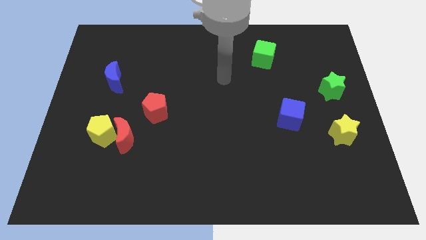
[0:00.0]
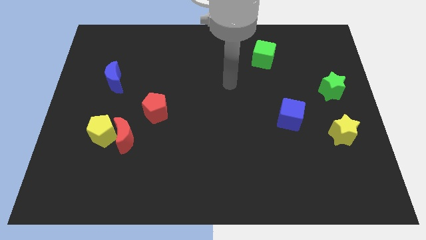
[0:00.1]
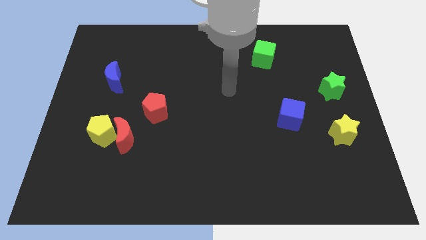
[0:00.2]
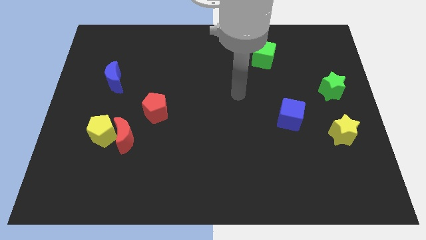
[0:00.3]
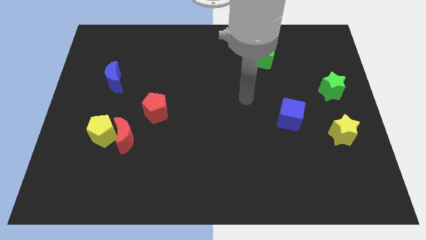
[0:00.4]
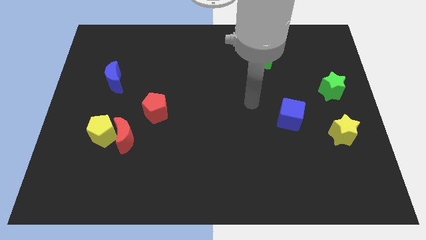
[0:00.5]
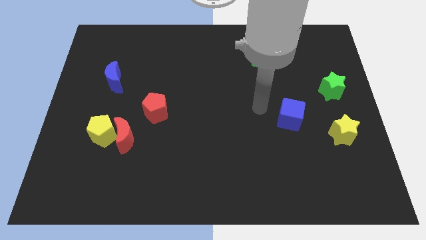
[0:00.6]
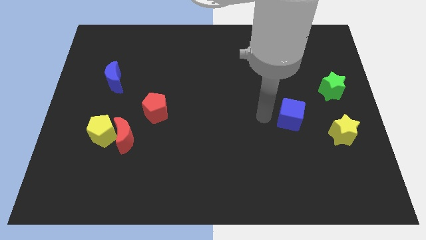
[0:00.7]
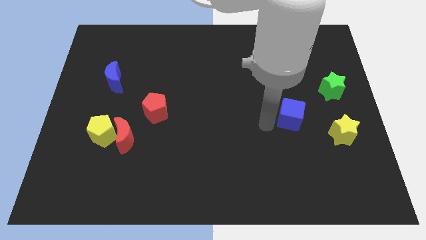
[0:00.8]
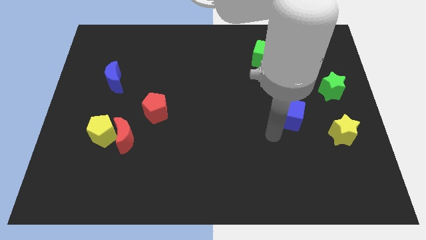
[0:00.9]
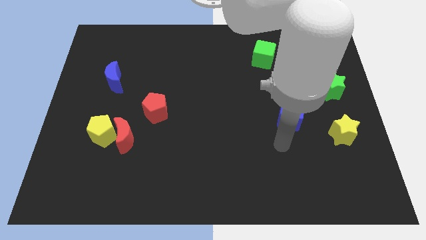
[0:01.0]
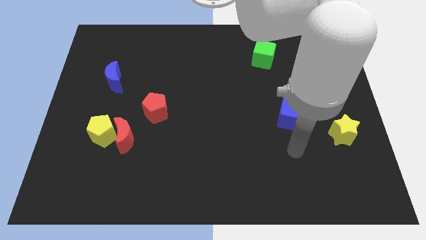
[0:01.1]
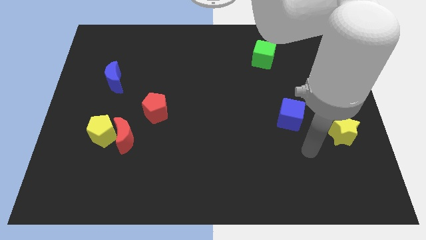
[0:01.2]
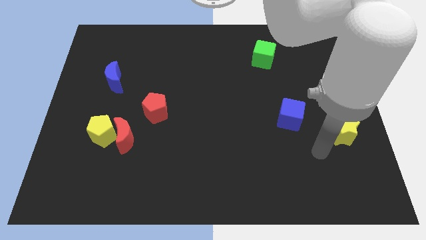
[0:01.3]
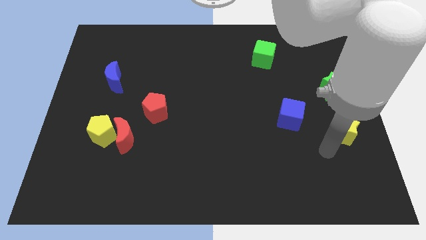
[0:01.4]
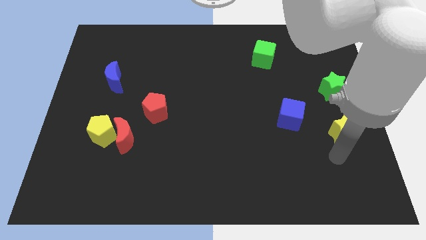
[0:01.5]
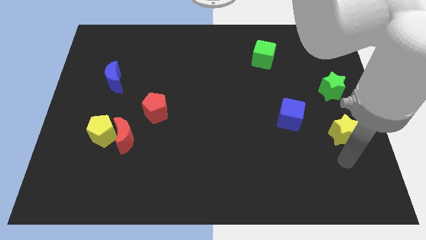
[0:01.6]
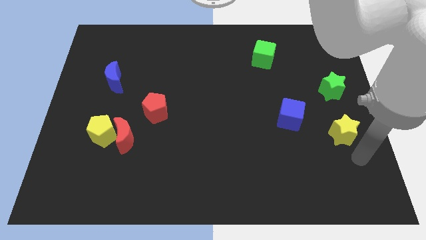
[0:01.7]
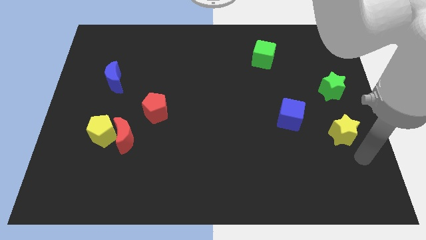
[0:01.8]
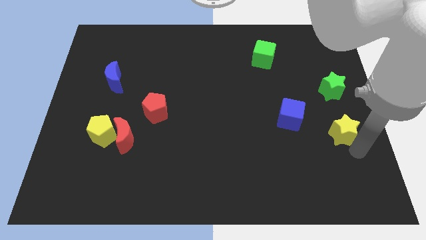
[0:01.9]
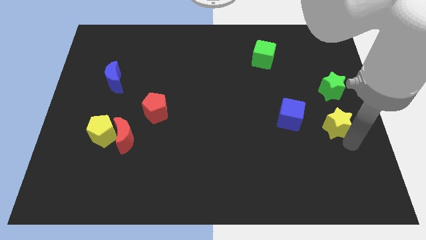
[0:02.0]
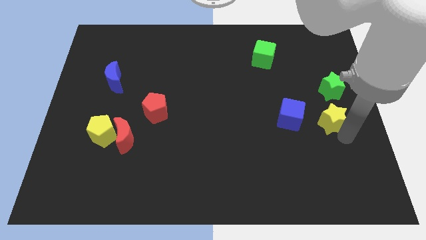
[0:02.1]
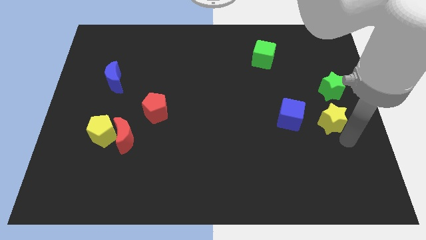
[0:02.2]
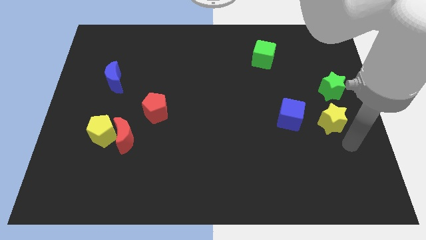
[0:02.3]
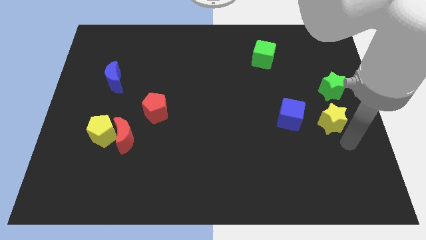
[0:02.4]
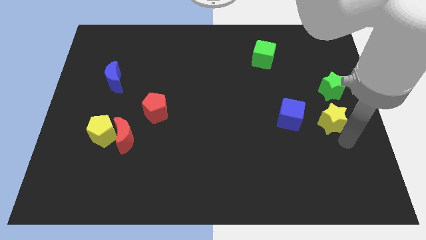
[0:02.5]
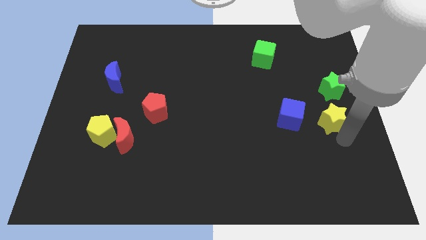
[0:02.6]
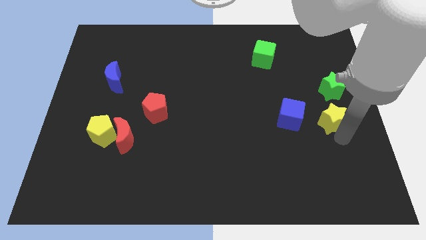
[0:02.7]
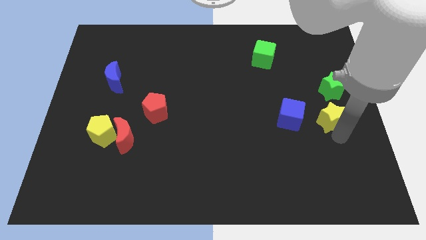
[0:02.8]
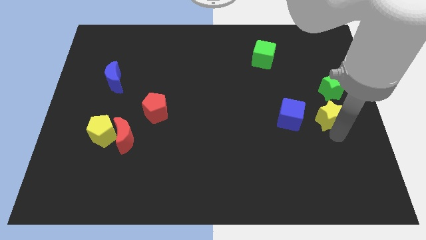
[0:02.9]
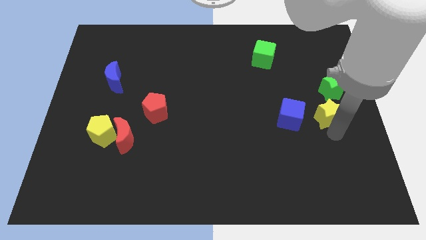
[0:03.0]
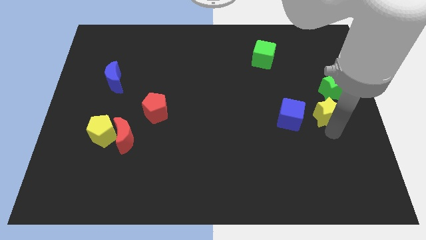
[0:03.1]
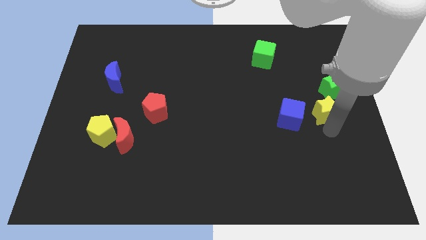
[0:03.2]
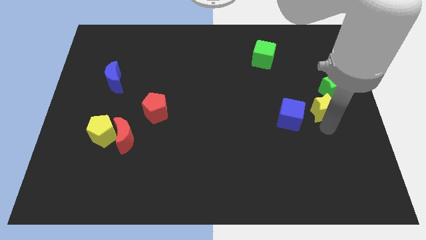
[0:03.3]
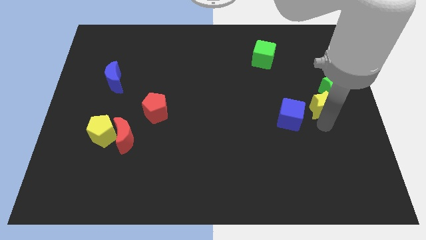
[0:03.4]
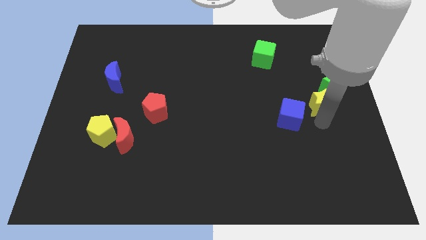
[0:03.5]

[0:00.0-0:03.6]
slightly push the yellow star up

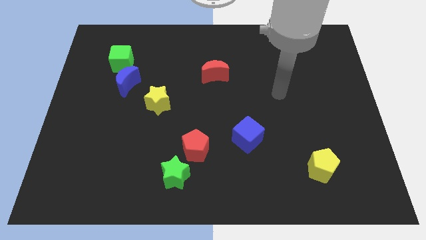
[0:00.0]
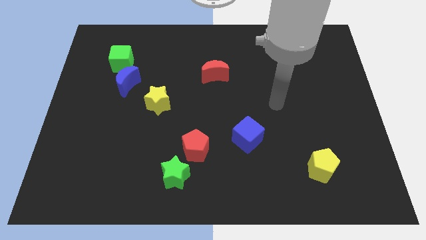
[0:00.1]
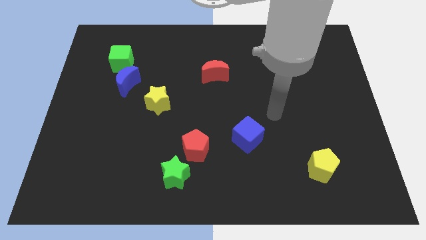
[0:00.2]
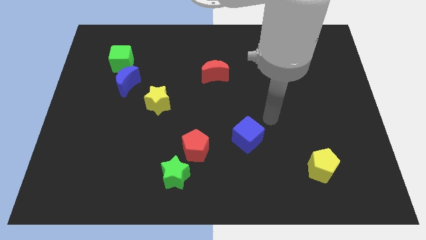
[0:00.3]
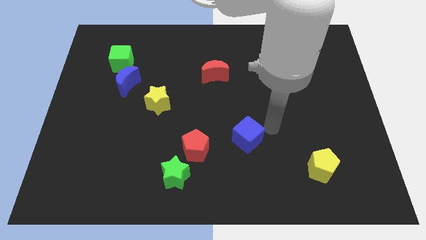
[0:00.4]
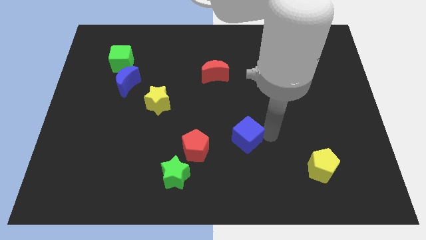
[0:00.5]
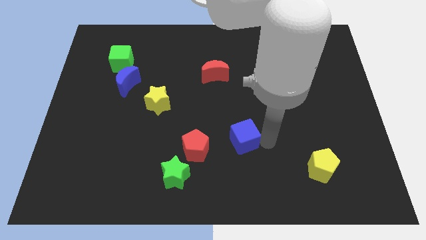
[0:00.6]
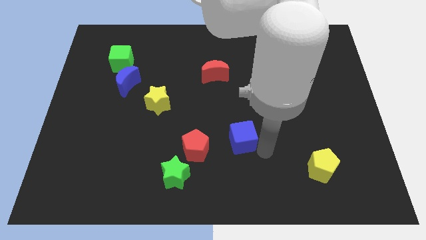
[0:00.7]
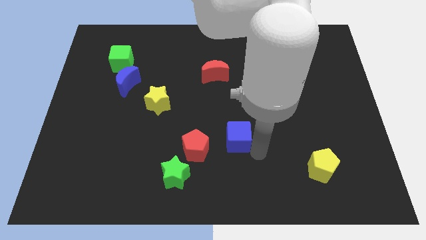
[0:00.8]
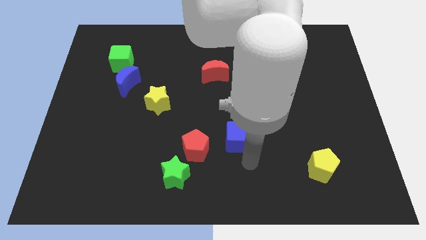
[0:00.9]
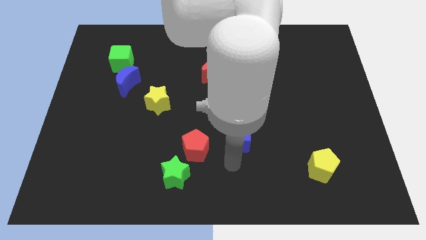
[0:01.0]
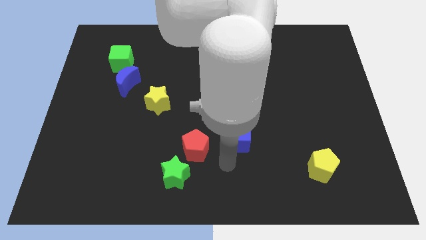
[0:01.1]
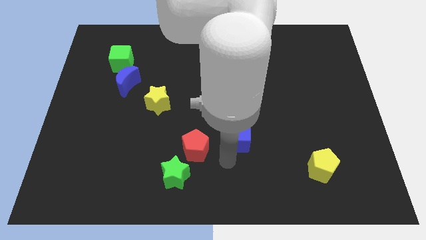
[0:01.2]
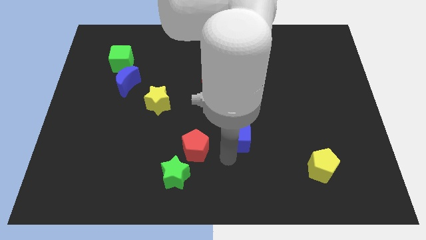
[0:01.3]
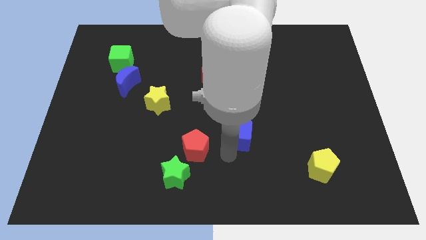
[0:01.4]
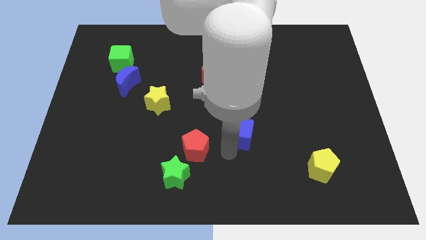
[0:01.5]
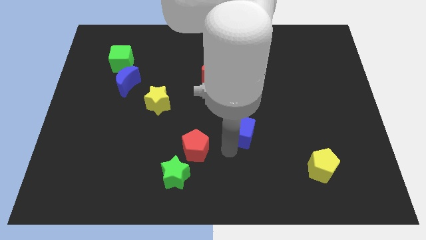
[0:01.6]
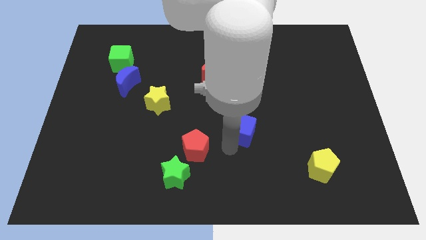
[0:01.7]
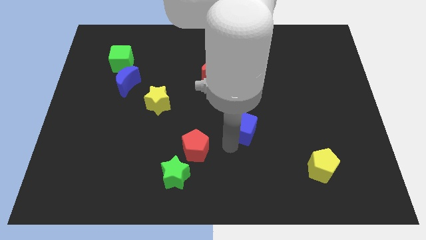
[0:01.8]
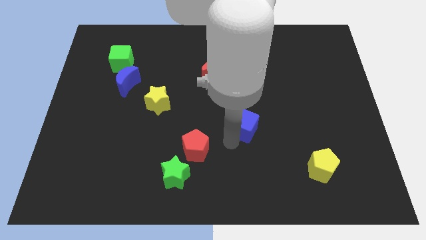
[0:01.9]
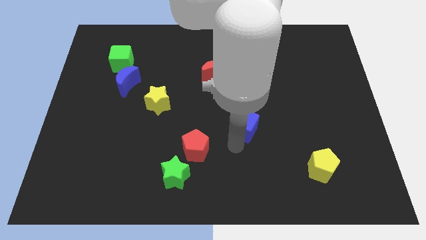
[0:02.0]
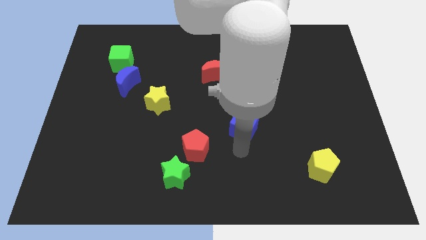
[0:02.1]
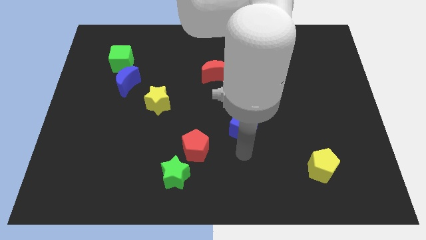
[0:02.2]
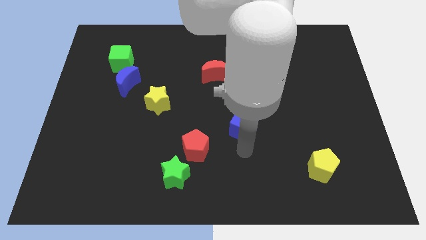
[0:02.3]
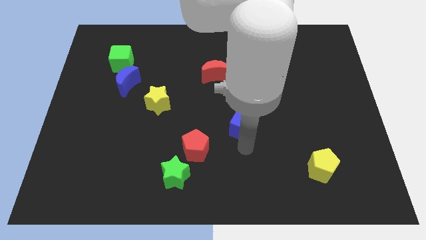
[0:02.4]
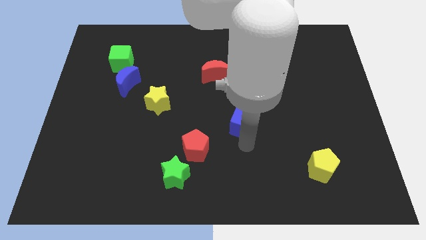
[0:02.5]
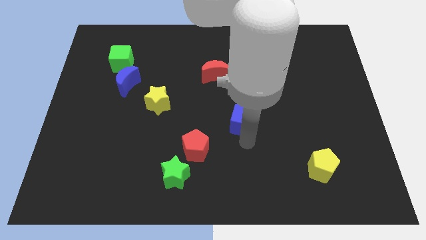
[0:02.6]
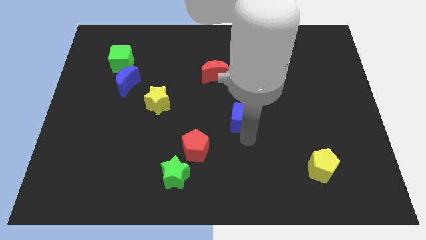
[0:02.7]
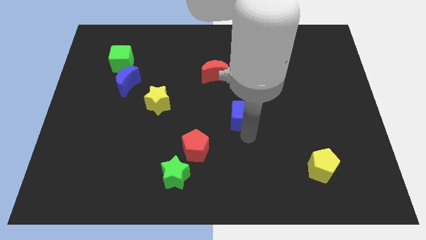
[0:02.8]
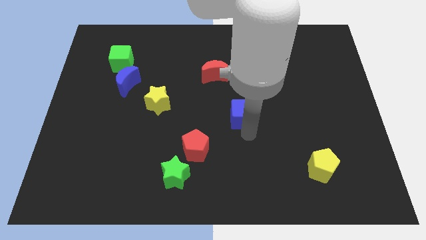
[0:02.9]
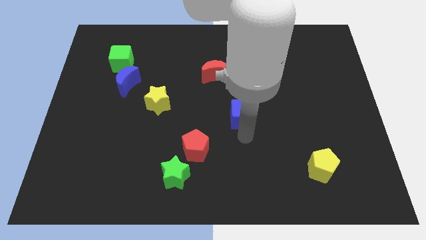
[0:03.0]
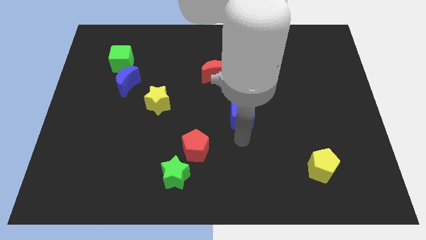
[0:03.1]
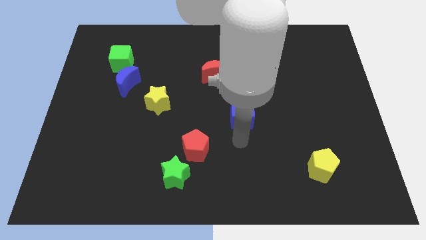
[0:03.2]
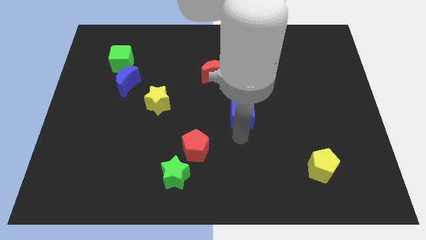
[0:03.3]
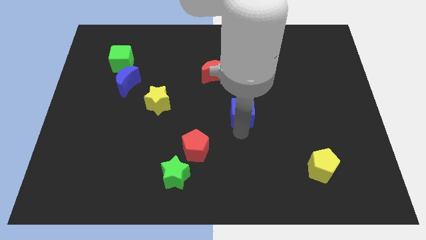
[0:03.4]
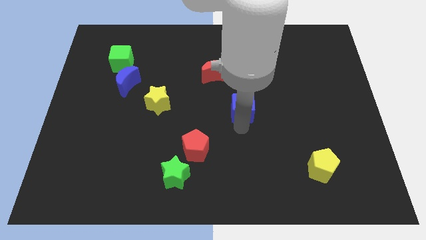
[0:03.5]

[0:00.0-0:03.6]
slide the blue cube upwards a little

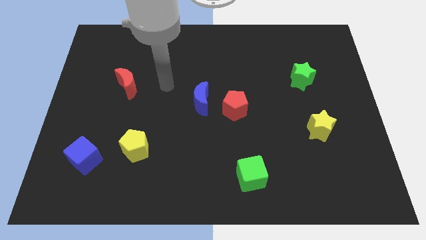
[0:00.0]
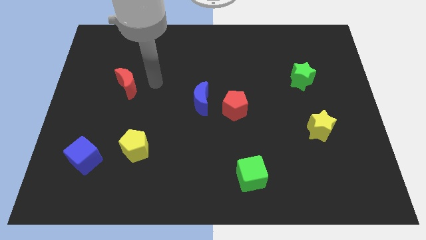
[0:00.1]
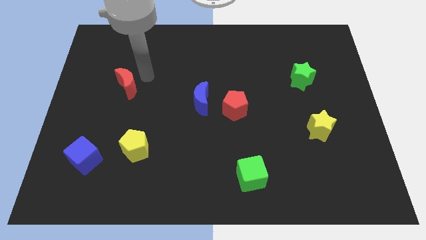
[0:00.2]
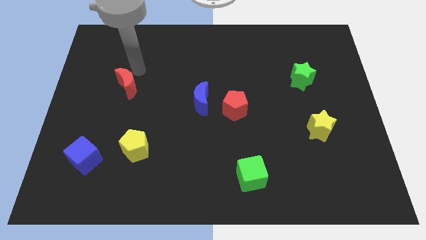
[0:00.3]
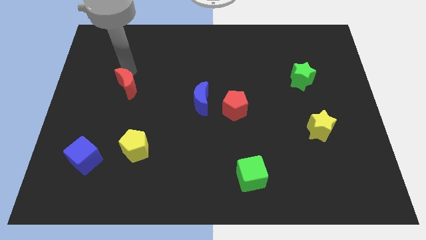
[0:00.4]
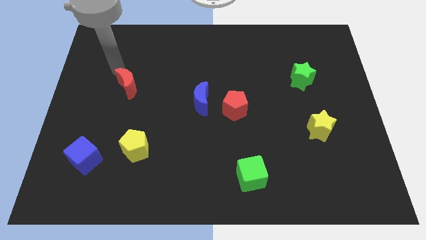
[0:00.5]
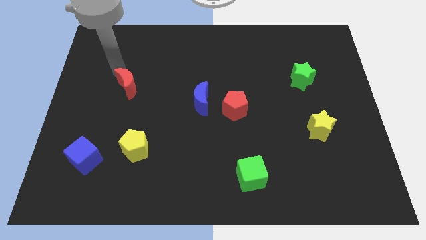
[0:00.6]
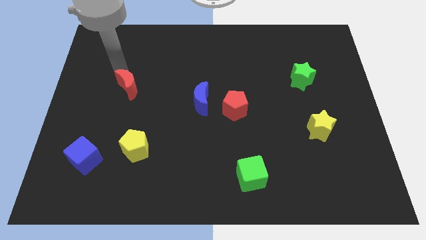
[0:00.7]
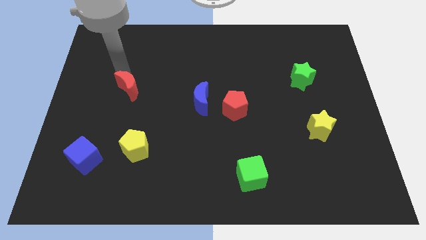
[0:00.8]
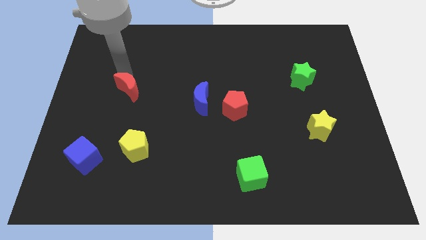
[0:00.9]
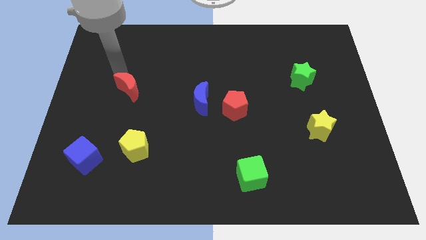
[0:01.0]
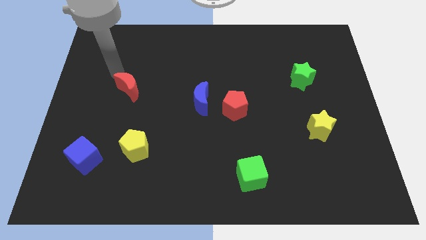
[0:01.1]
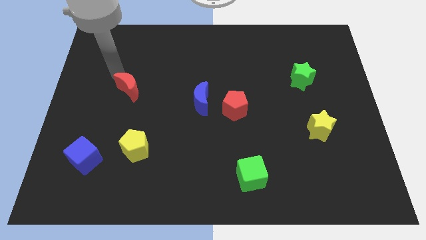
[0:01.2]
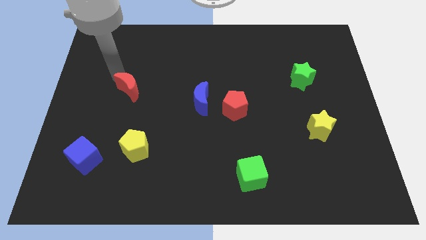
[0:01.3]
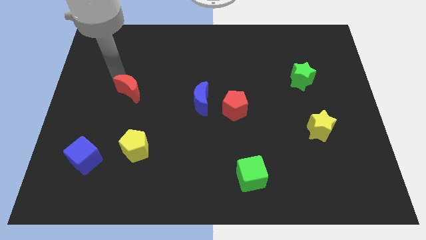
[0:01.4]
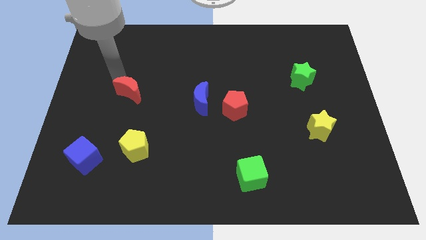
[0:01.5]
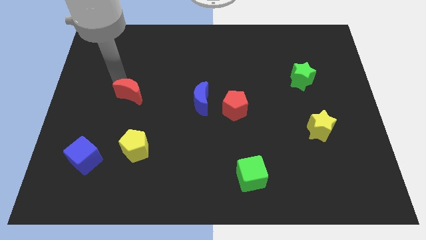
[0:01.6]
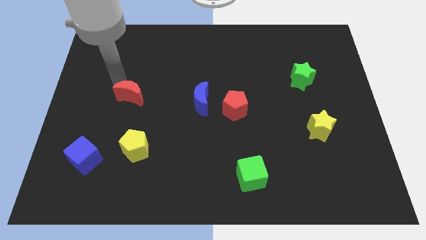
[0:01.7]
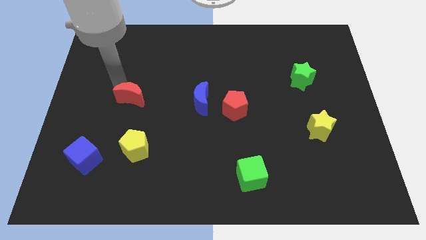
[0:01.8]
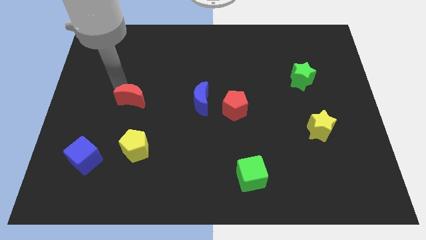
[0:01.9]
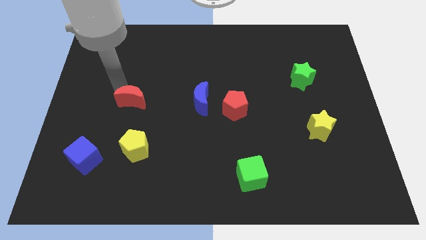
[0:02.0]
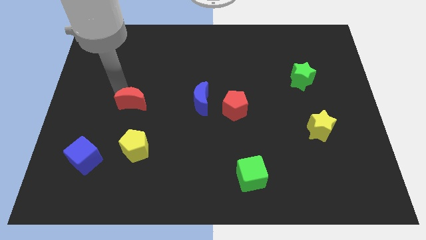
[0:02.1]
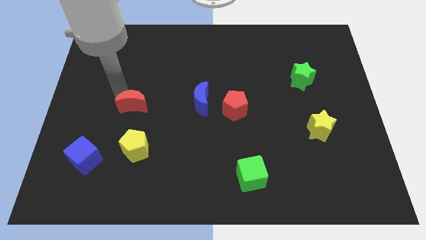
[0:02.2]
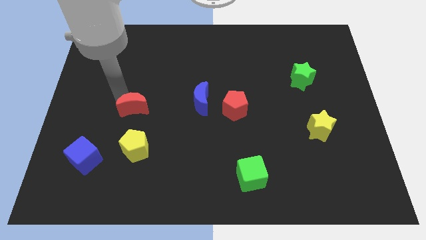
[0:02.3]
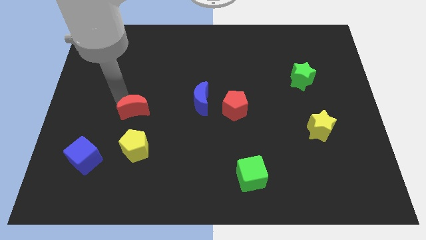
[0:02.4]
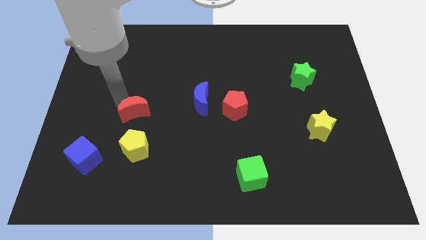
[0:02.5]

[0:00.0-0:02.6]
slide the red moon a bit down and to the right
